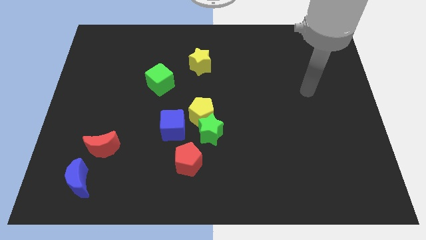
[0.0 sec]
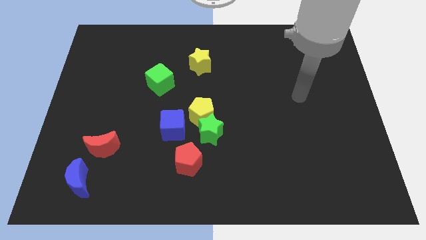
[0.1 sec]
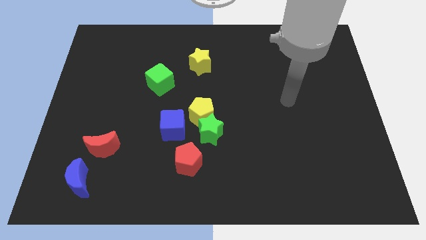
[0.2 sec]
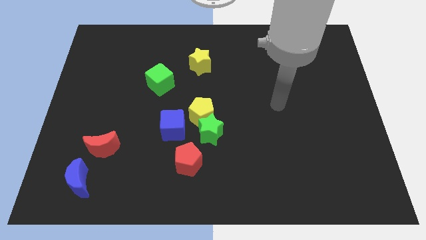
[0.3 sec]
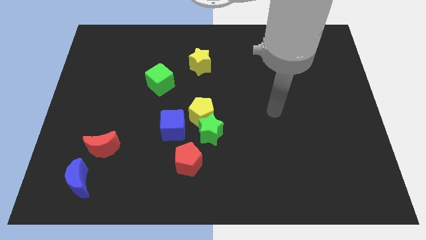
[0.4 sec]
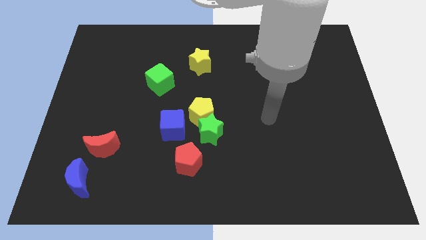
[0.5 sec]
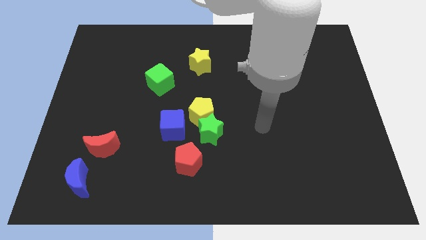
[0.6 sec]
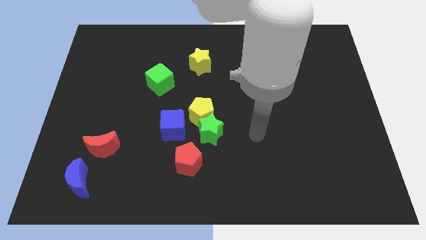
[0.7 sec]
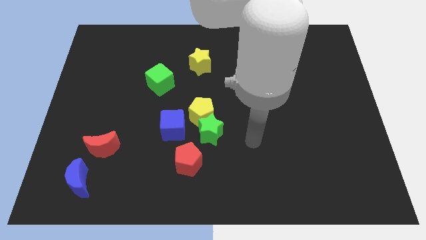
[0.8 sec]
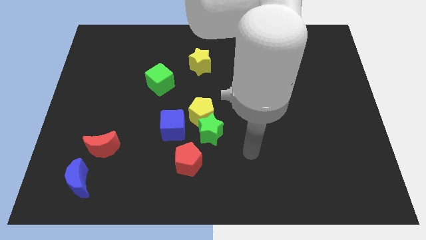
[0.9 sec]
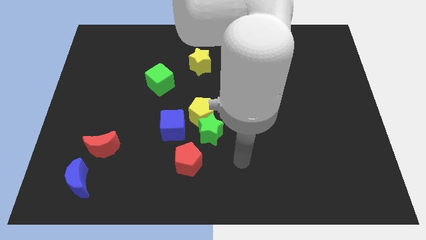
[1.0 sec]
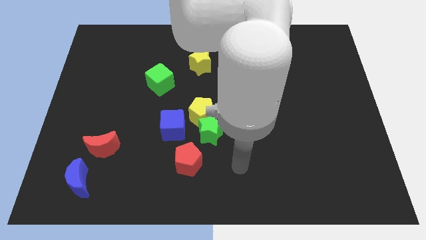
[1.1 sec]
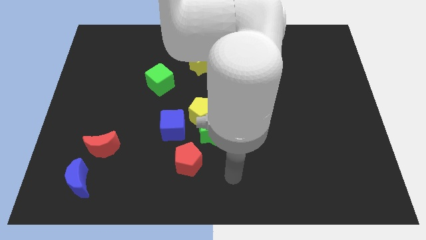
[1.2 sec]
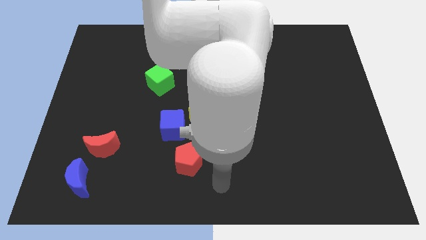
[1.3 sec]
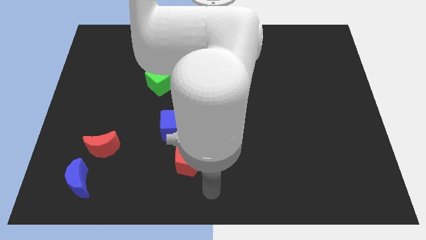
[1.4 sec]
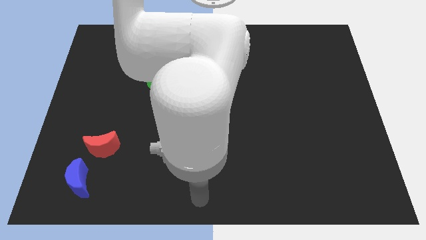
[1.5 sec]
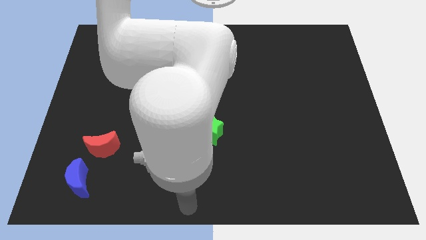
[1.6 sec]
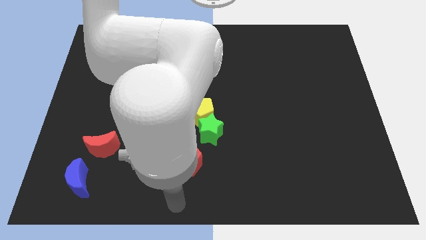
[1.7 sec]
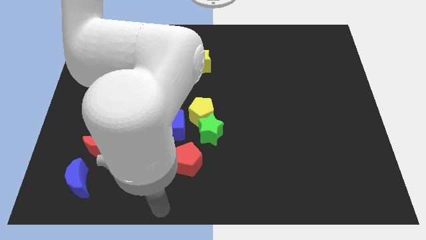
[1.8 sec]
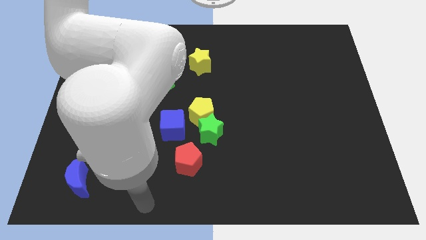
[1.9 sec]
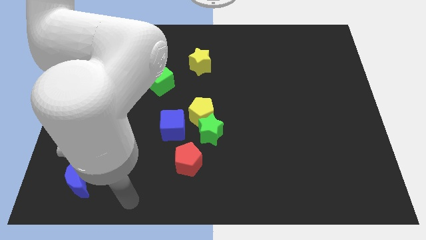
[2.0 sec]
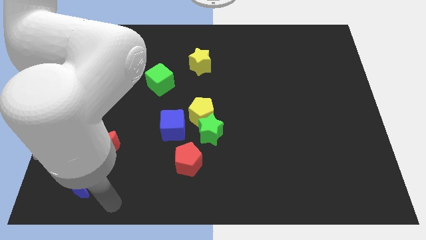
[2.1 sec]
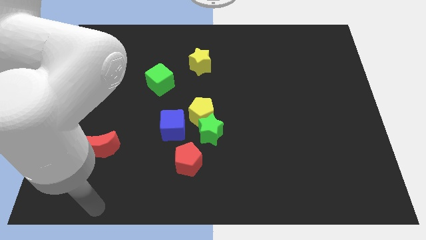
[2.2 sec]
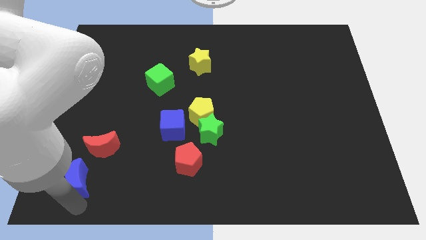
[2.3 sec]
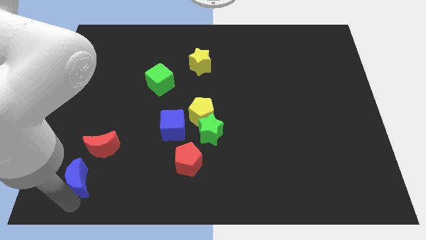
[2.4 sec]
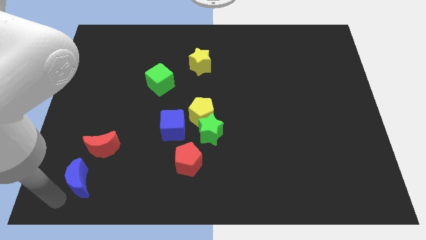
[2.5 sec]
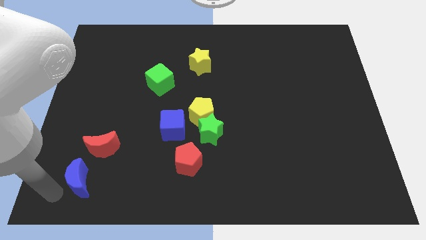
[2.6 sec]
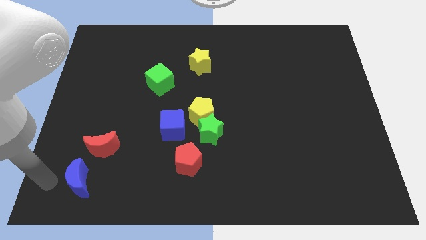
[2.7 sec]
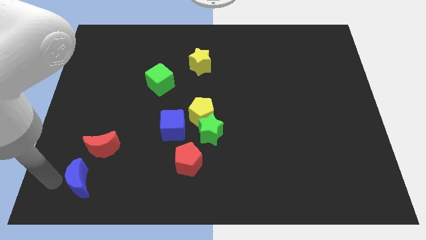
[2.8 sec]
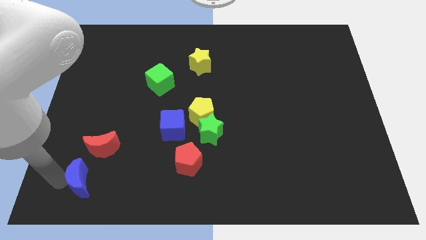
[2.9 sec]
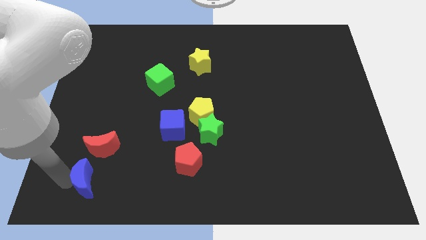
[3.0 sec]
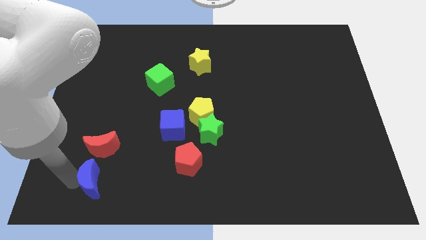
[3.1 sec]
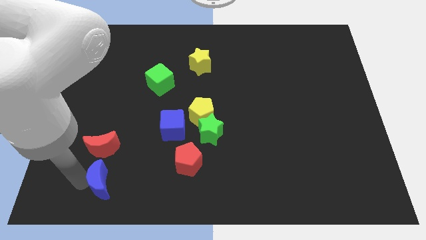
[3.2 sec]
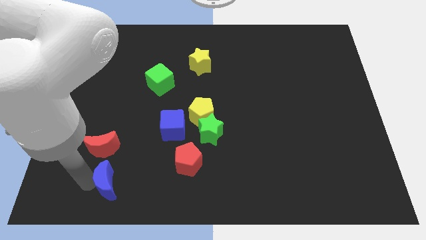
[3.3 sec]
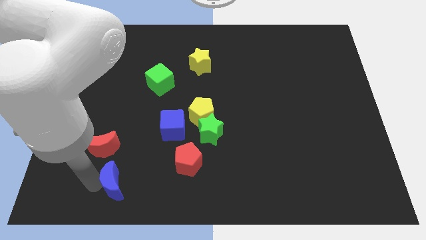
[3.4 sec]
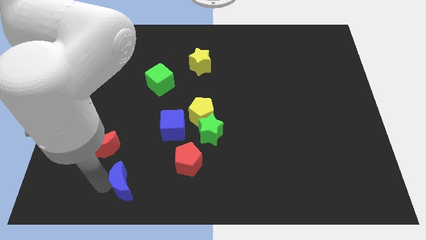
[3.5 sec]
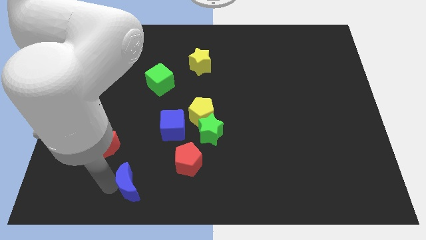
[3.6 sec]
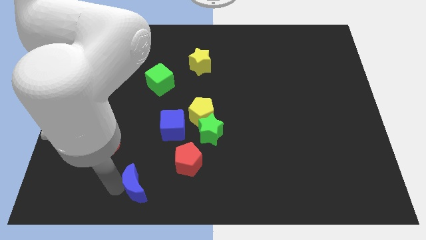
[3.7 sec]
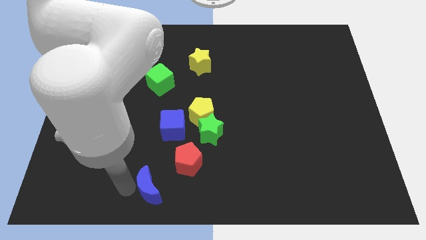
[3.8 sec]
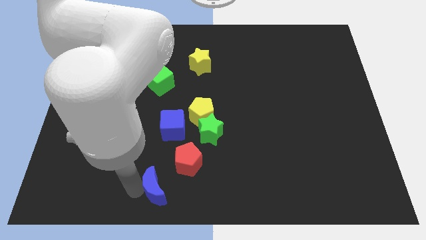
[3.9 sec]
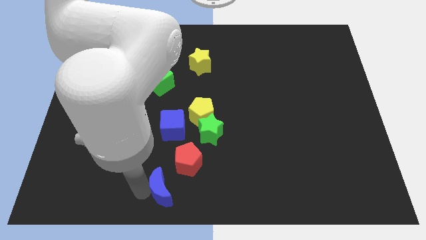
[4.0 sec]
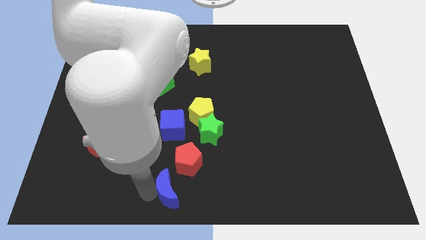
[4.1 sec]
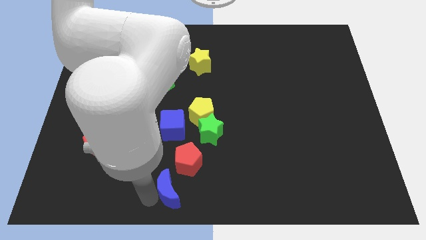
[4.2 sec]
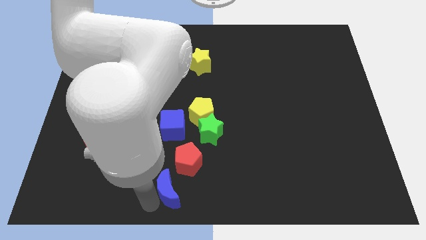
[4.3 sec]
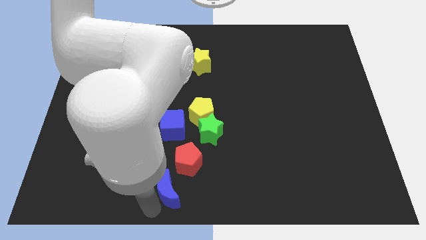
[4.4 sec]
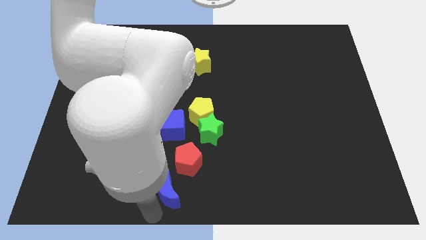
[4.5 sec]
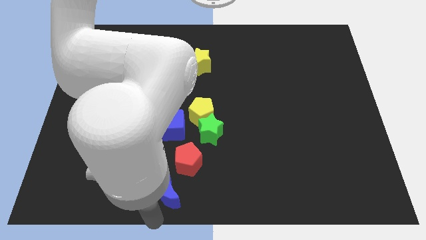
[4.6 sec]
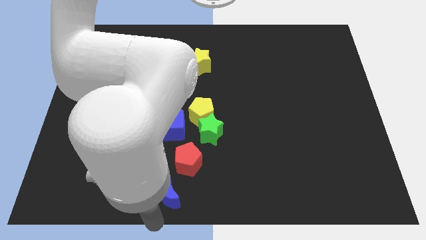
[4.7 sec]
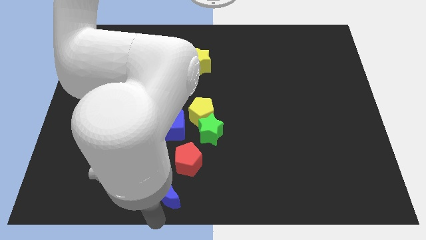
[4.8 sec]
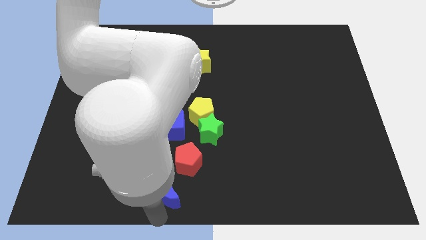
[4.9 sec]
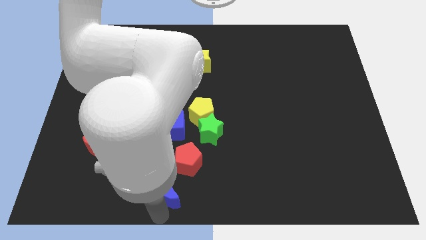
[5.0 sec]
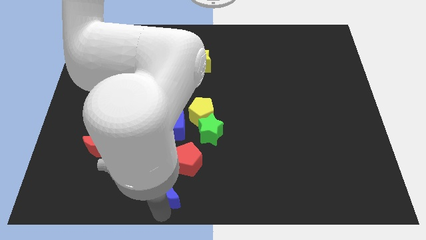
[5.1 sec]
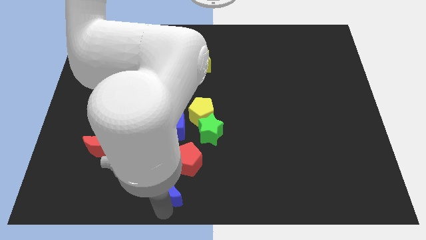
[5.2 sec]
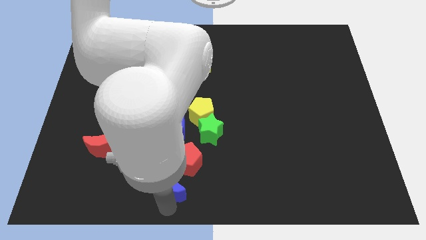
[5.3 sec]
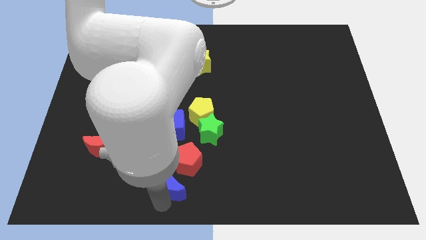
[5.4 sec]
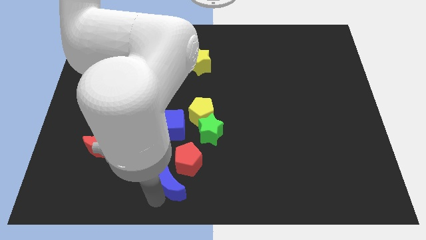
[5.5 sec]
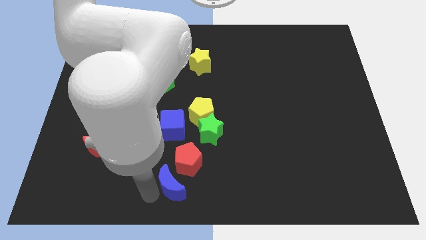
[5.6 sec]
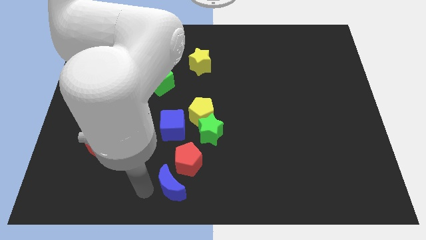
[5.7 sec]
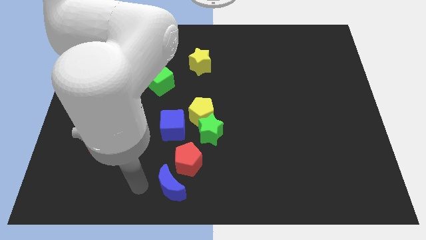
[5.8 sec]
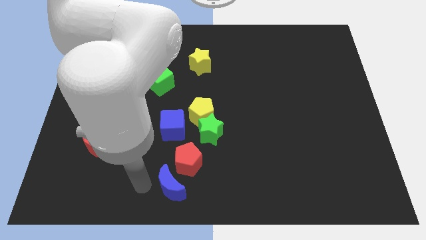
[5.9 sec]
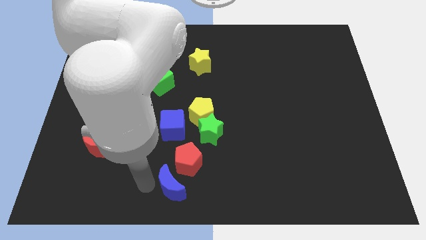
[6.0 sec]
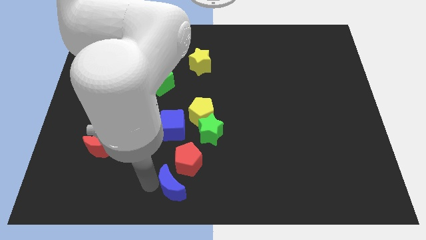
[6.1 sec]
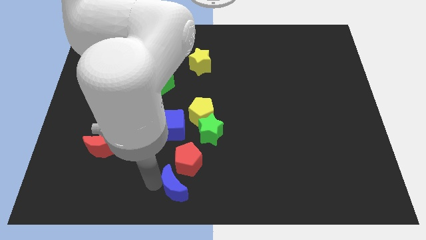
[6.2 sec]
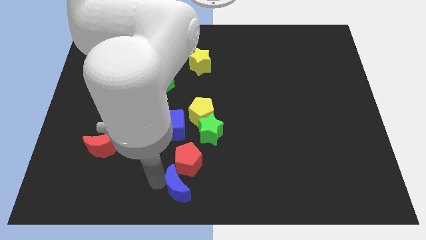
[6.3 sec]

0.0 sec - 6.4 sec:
push the blue moon right

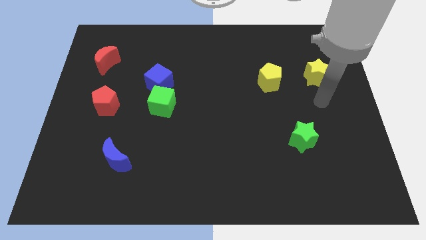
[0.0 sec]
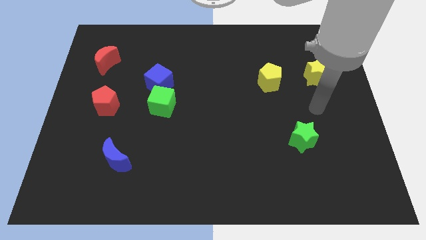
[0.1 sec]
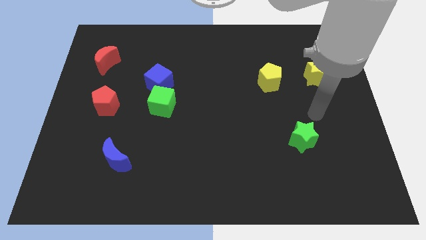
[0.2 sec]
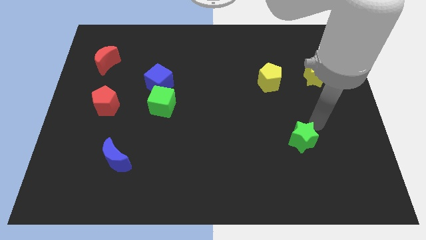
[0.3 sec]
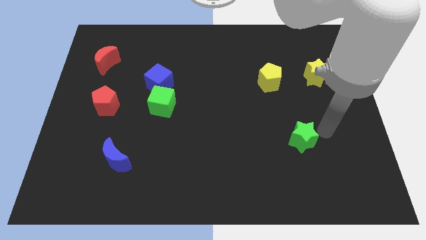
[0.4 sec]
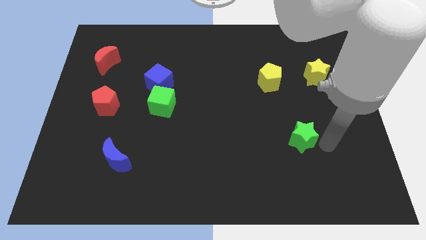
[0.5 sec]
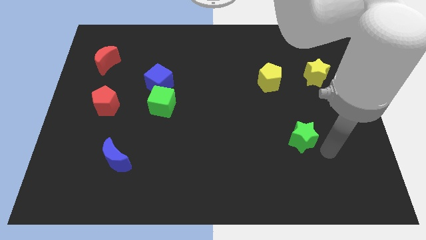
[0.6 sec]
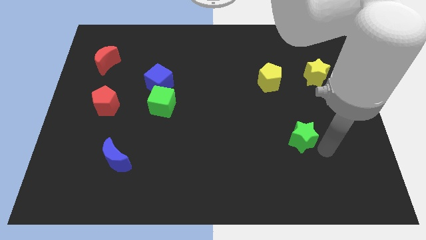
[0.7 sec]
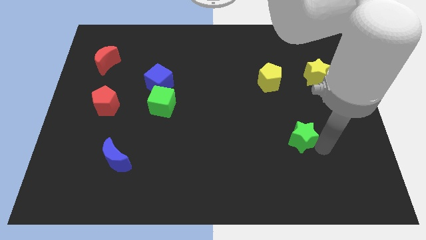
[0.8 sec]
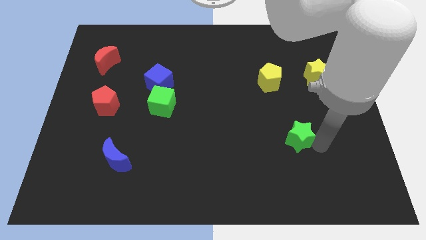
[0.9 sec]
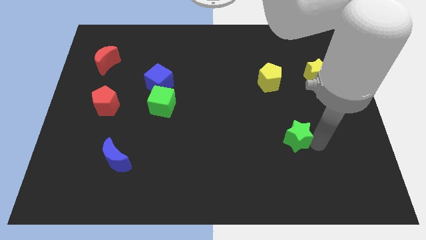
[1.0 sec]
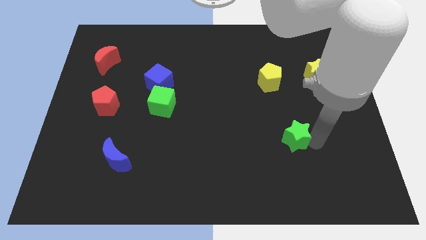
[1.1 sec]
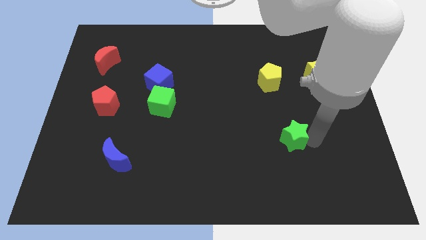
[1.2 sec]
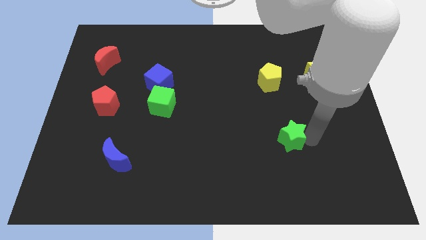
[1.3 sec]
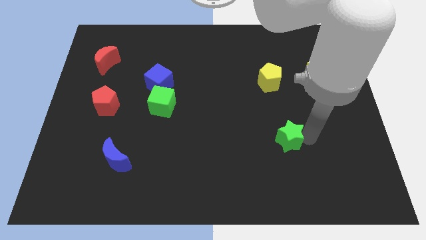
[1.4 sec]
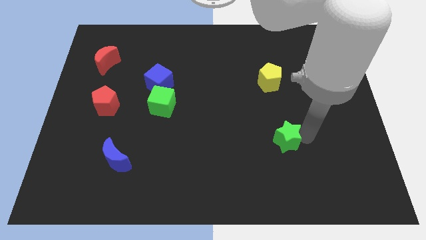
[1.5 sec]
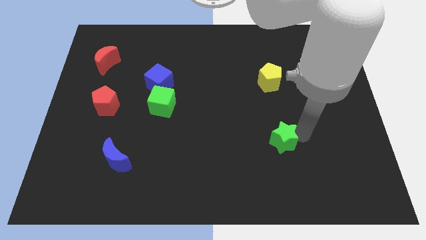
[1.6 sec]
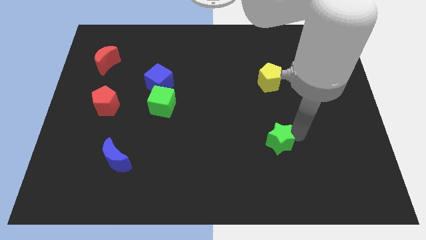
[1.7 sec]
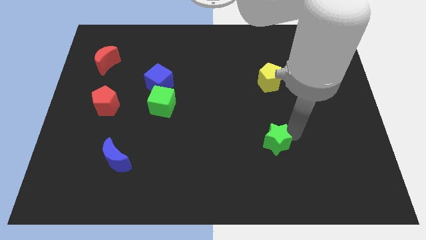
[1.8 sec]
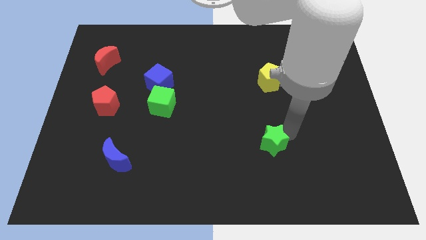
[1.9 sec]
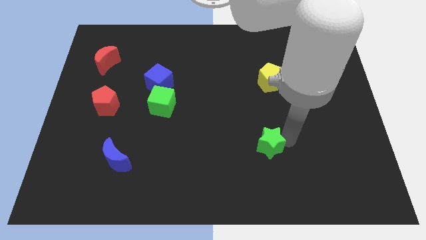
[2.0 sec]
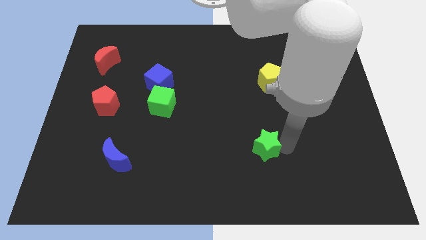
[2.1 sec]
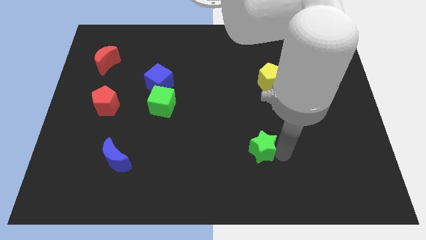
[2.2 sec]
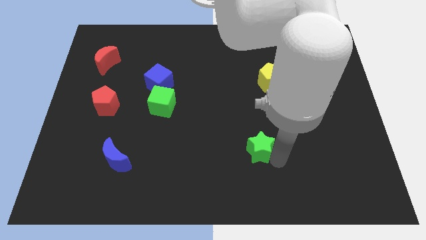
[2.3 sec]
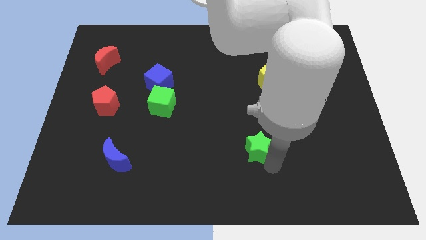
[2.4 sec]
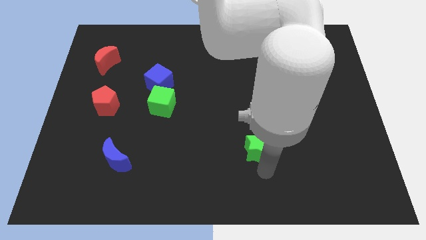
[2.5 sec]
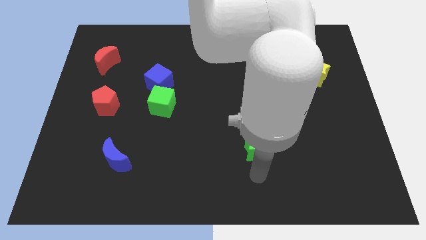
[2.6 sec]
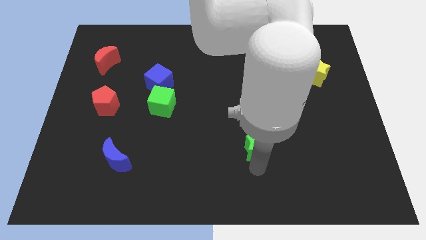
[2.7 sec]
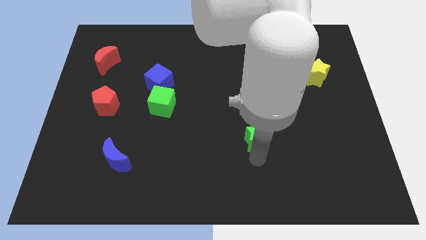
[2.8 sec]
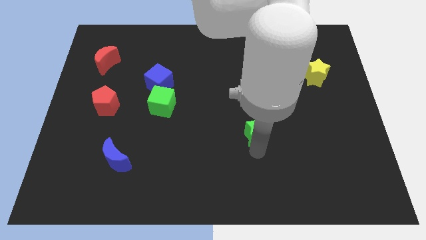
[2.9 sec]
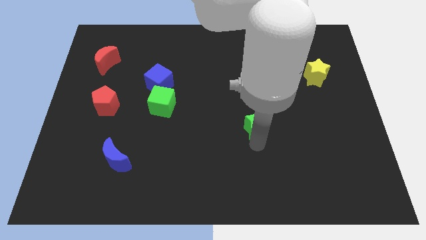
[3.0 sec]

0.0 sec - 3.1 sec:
push the green star diagonally upwards and to the left somewhat
